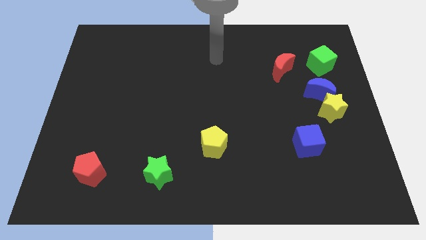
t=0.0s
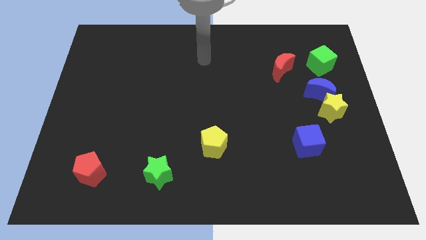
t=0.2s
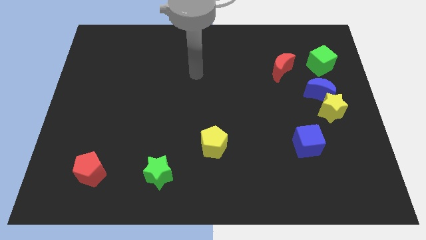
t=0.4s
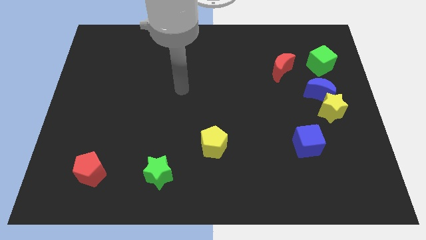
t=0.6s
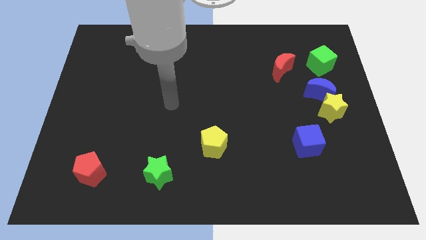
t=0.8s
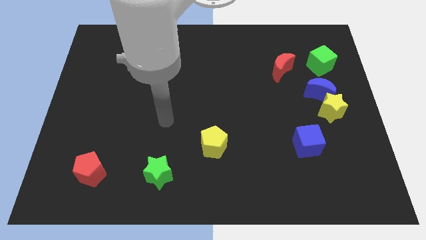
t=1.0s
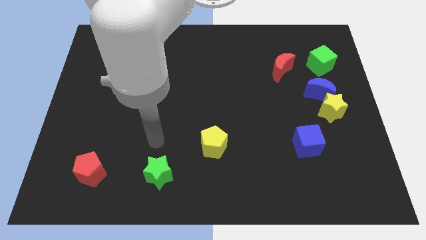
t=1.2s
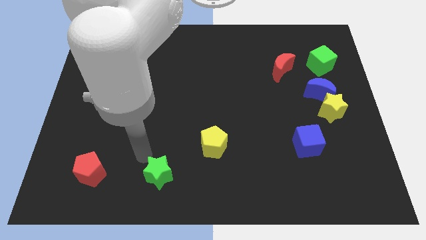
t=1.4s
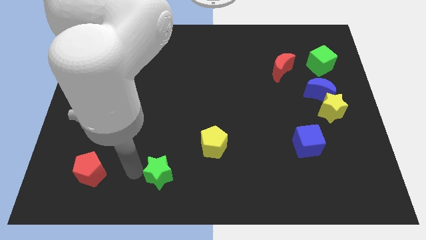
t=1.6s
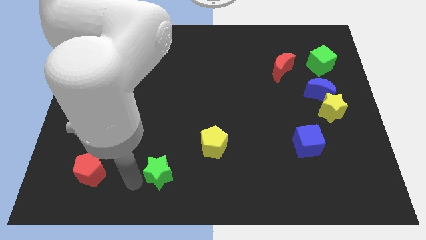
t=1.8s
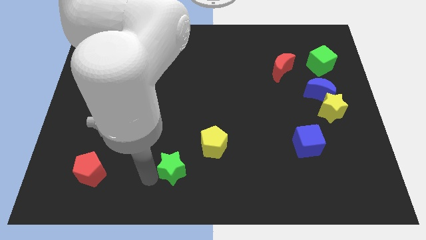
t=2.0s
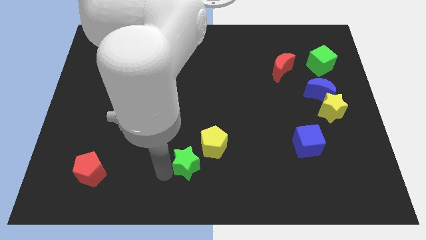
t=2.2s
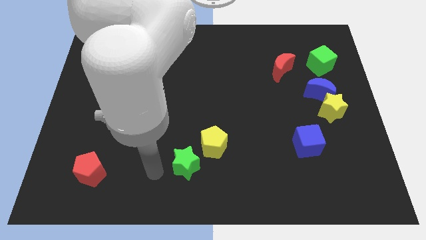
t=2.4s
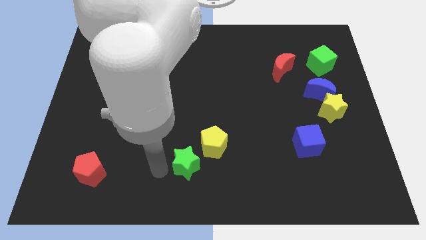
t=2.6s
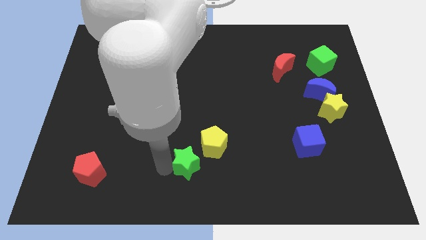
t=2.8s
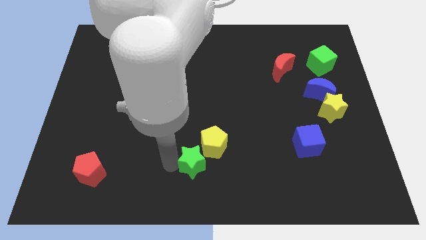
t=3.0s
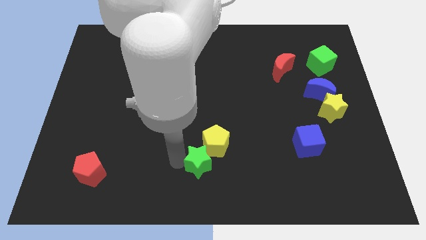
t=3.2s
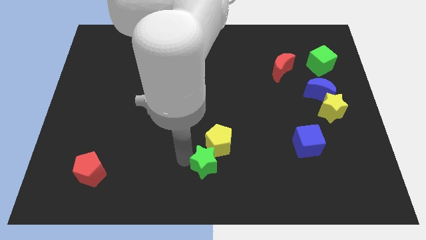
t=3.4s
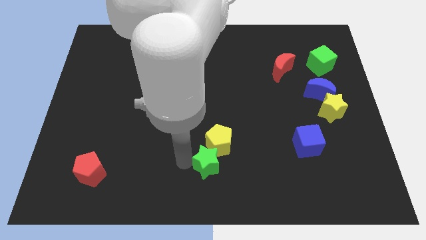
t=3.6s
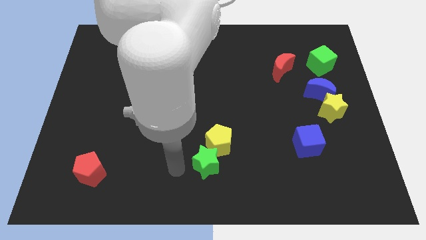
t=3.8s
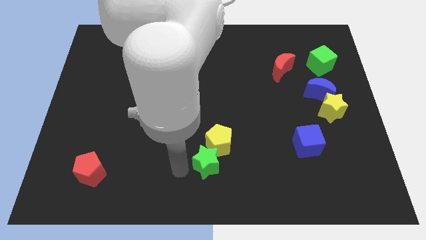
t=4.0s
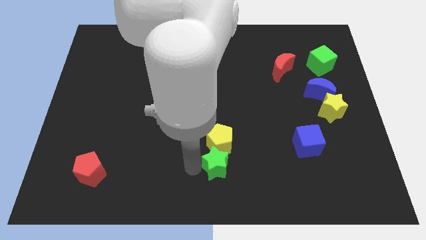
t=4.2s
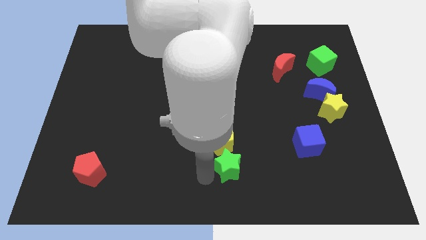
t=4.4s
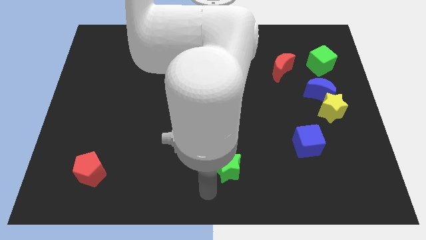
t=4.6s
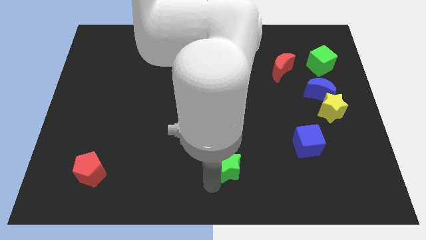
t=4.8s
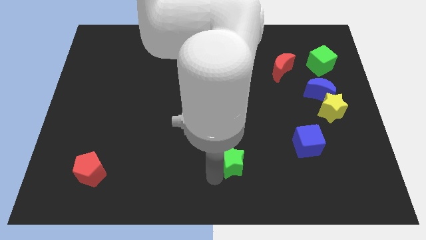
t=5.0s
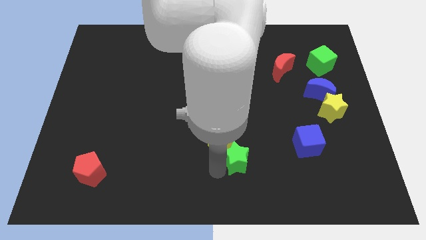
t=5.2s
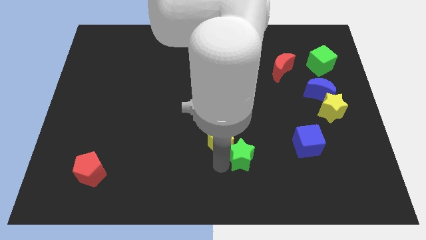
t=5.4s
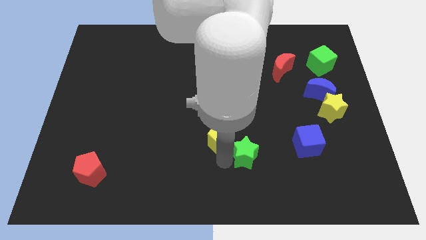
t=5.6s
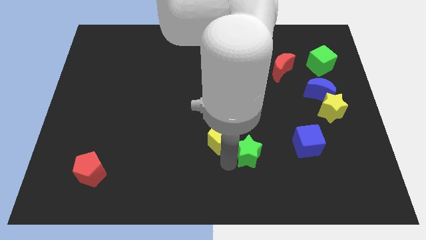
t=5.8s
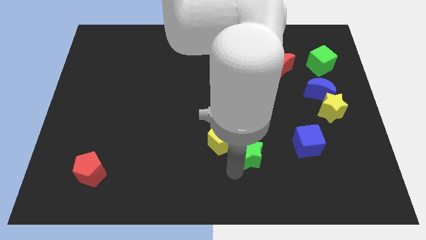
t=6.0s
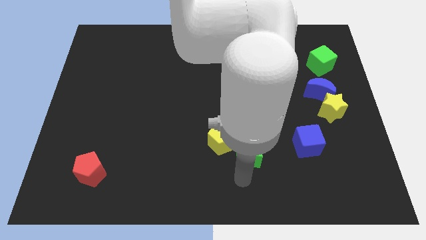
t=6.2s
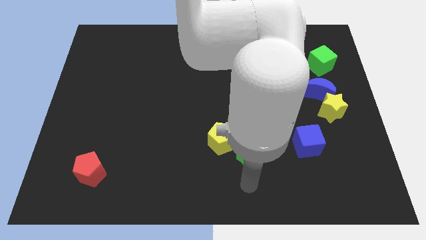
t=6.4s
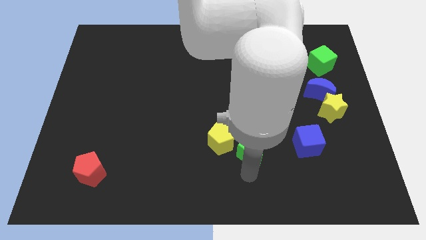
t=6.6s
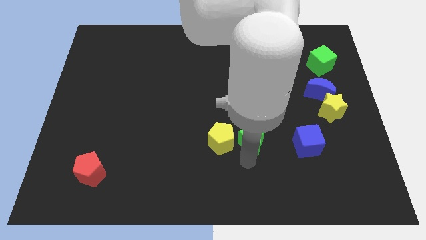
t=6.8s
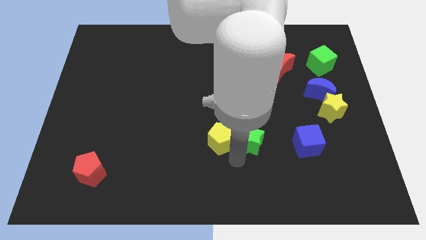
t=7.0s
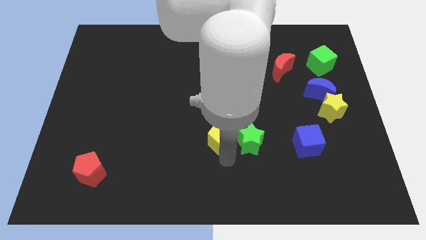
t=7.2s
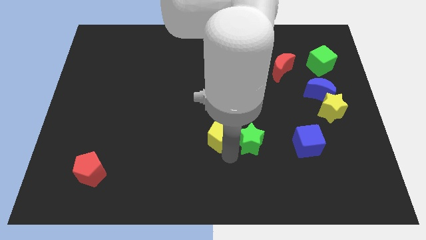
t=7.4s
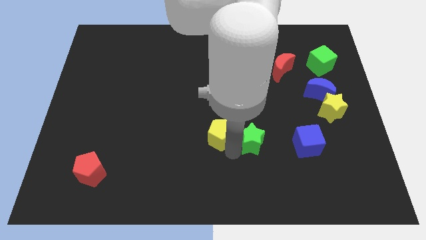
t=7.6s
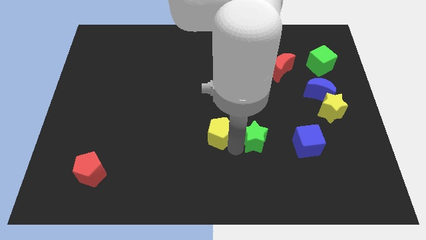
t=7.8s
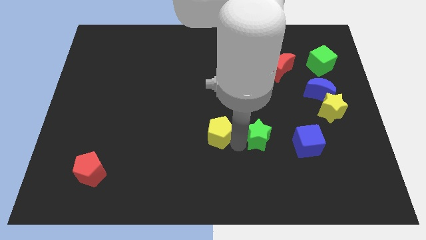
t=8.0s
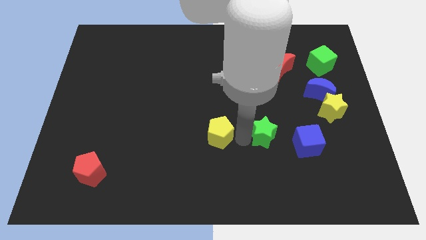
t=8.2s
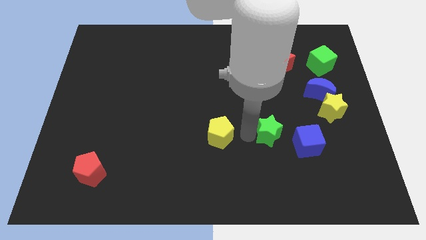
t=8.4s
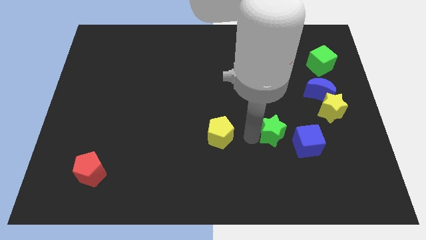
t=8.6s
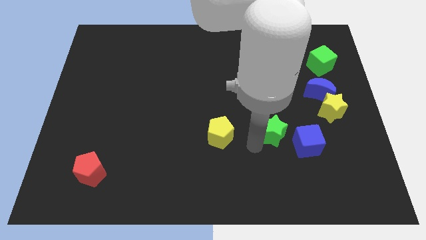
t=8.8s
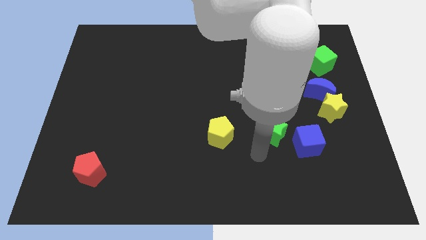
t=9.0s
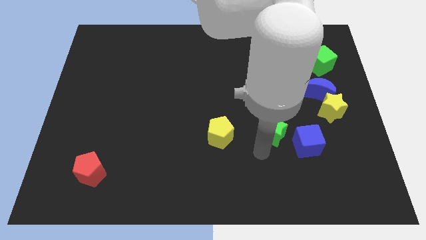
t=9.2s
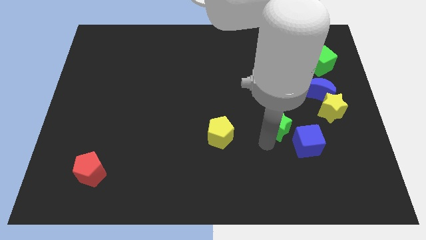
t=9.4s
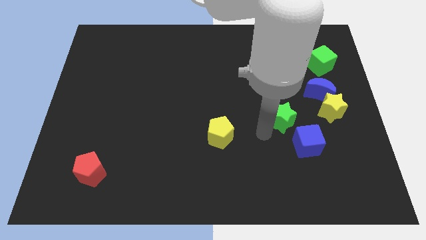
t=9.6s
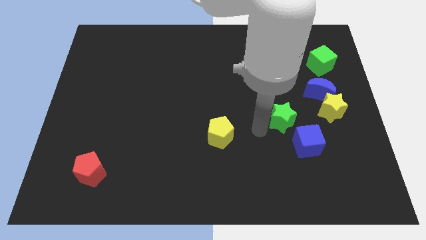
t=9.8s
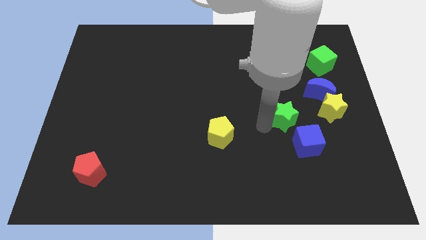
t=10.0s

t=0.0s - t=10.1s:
put the green star to the bottom left of the blue moon

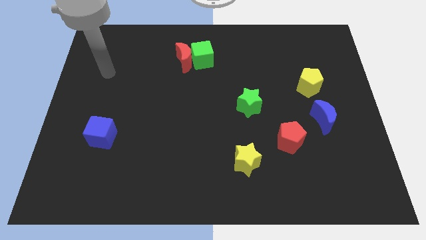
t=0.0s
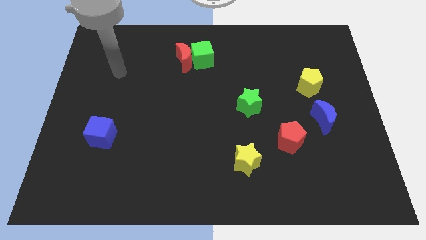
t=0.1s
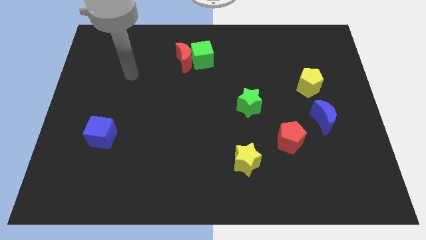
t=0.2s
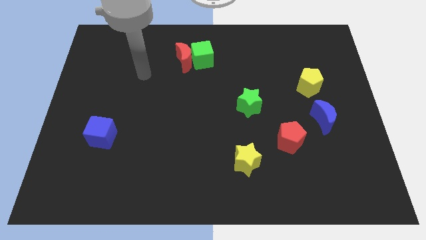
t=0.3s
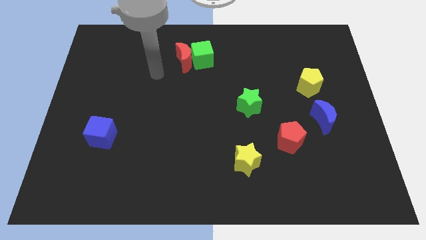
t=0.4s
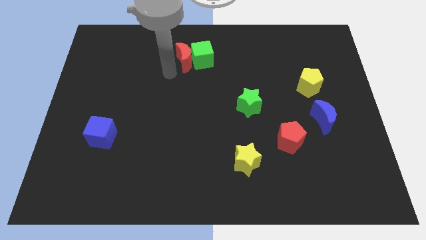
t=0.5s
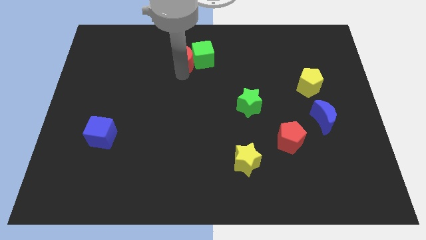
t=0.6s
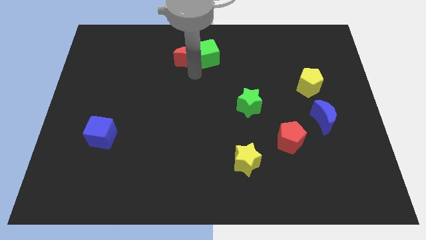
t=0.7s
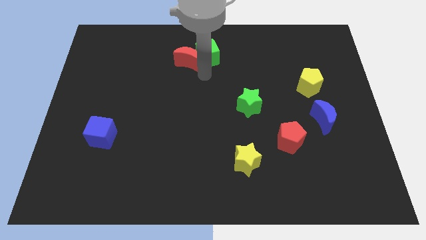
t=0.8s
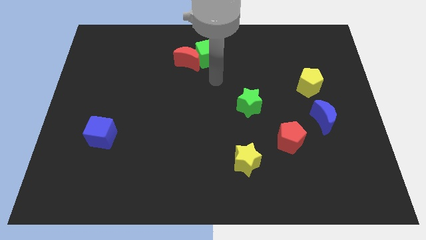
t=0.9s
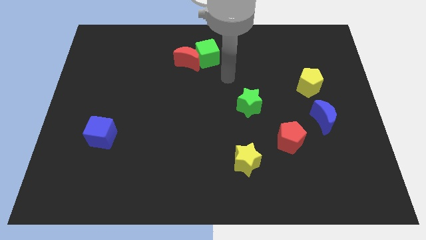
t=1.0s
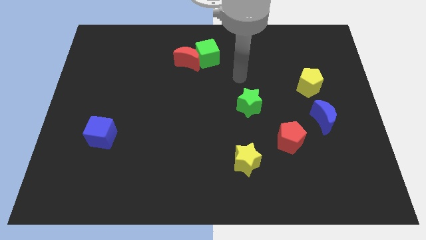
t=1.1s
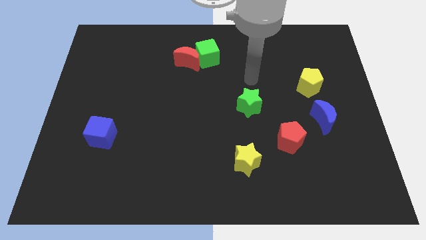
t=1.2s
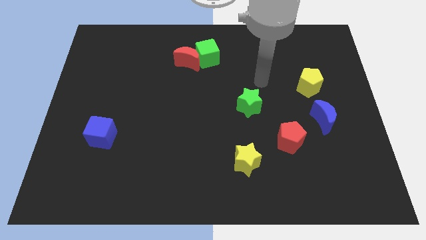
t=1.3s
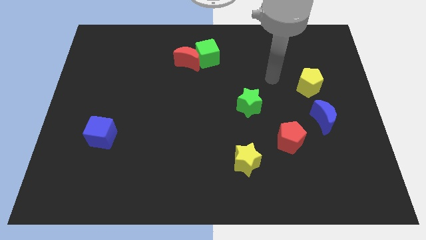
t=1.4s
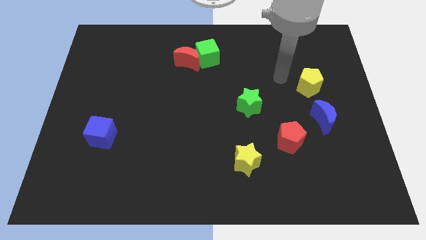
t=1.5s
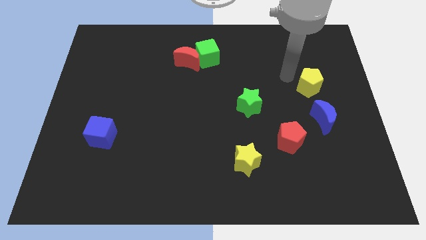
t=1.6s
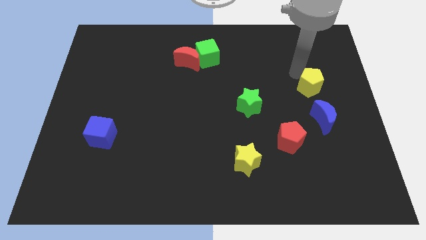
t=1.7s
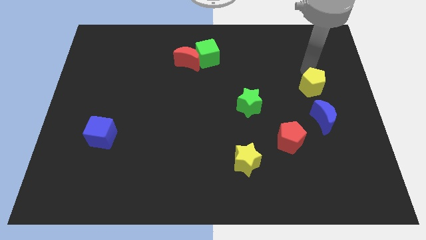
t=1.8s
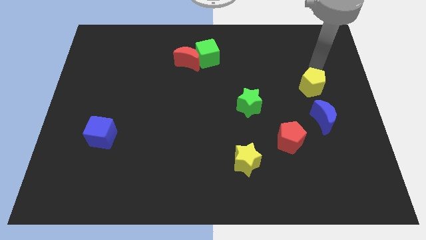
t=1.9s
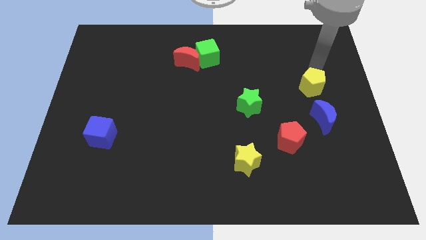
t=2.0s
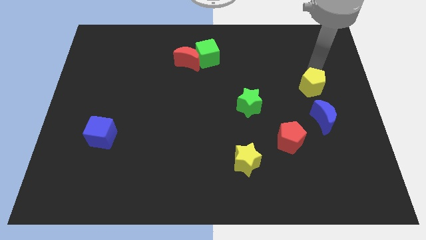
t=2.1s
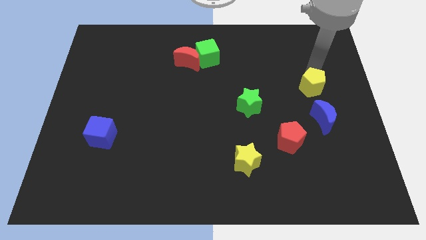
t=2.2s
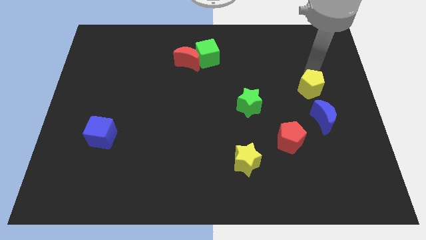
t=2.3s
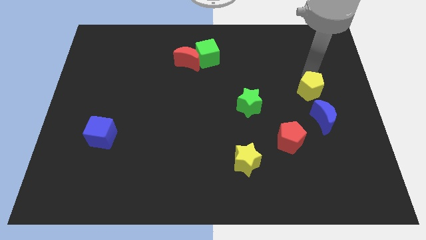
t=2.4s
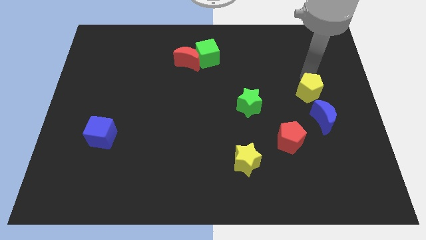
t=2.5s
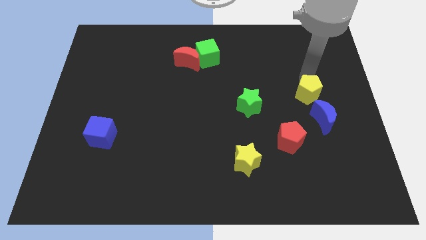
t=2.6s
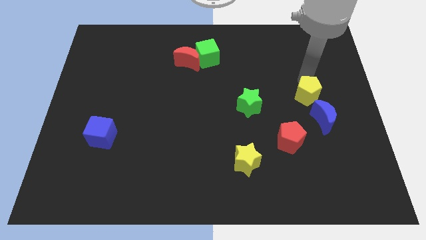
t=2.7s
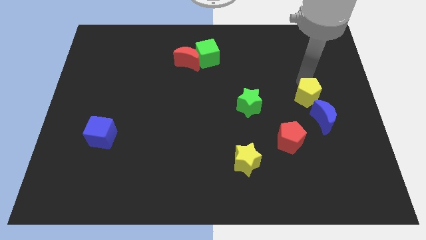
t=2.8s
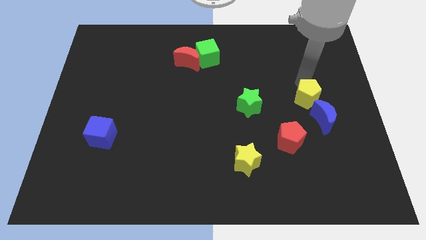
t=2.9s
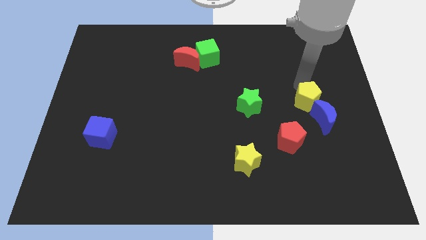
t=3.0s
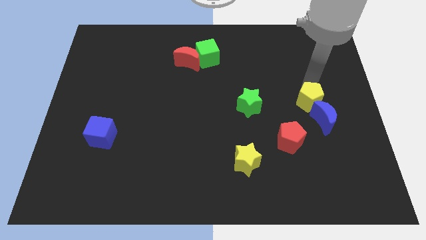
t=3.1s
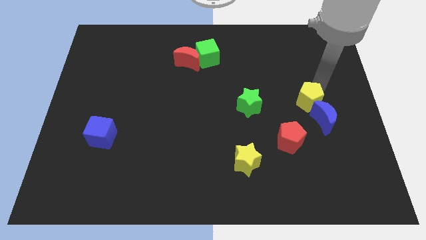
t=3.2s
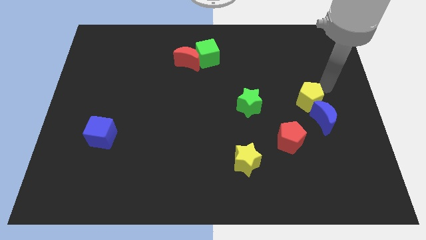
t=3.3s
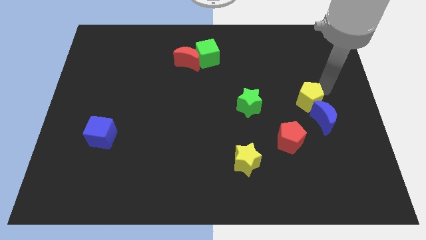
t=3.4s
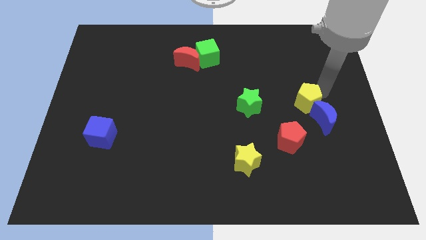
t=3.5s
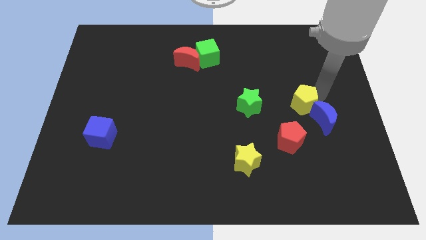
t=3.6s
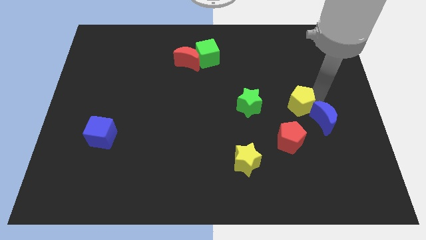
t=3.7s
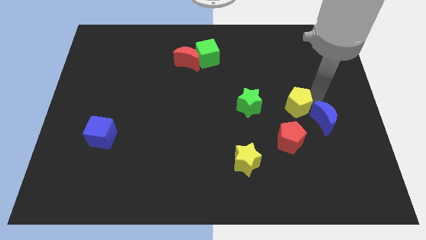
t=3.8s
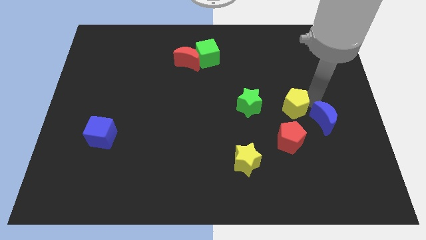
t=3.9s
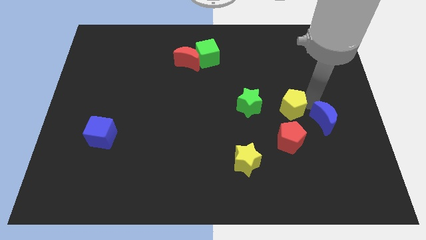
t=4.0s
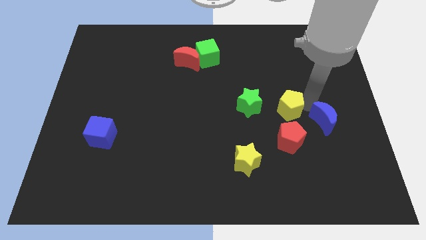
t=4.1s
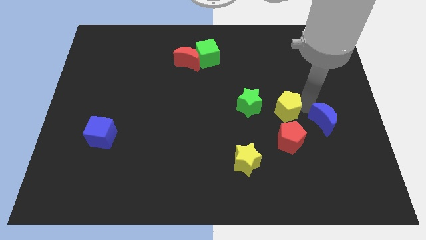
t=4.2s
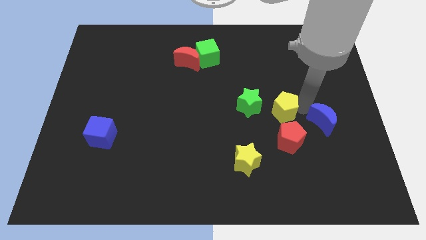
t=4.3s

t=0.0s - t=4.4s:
push the yellow pentagon diagonally down and to the right of the green star
